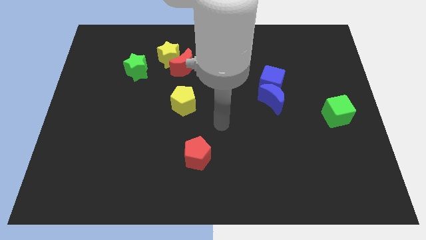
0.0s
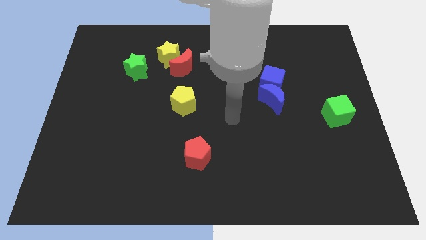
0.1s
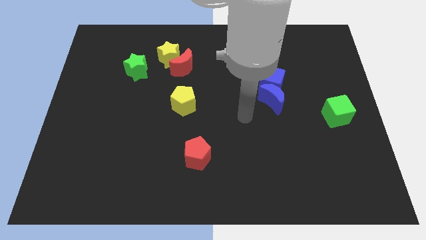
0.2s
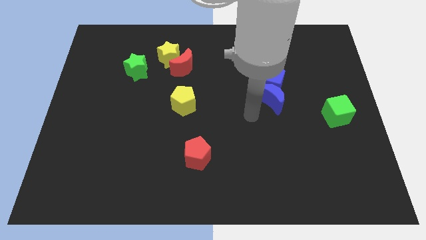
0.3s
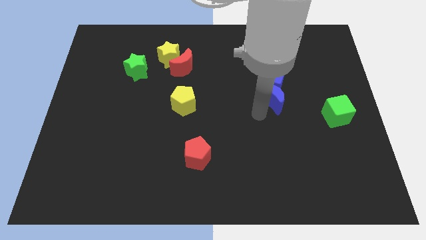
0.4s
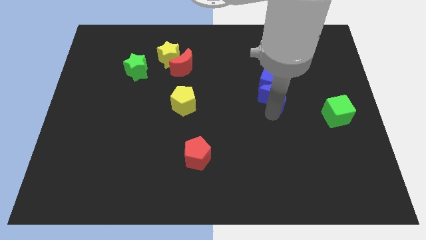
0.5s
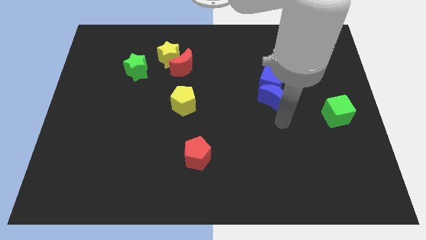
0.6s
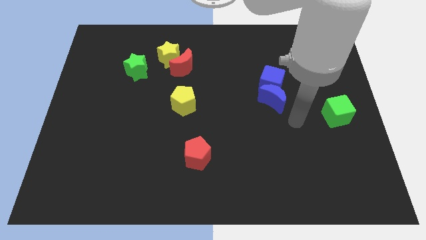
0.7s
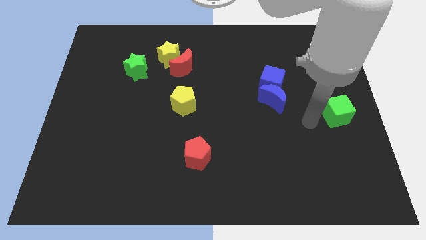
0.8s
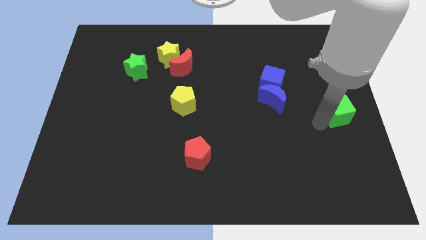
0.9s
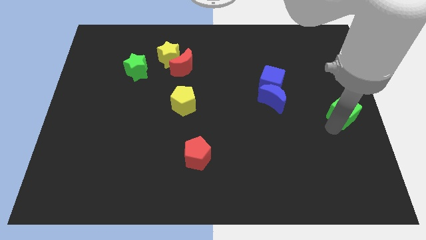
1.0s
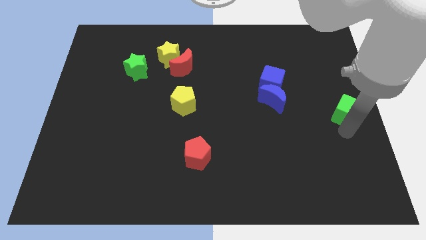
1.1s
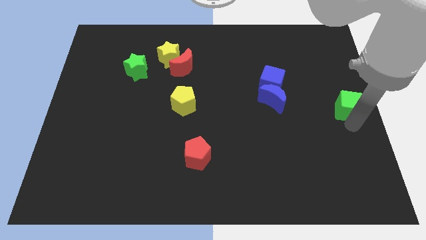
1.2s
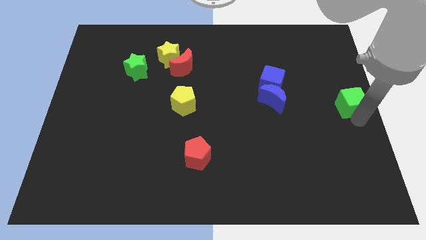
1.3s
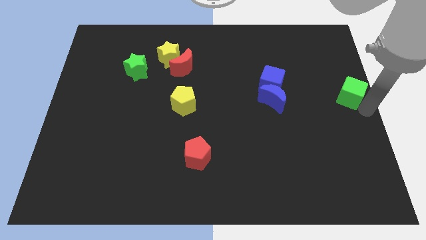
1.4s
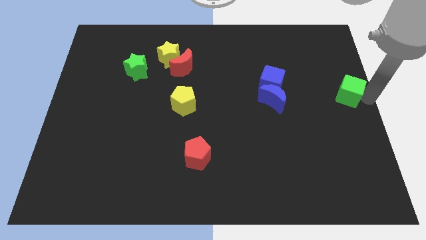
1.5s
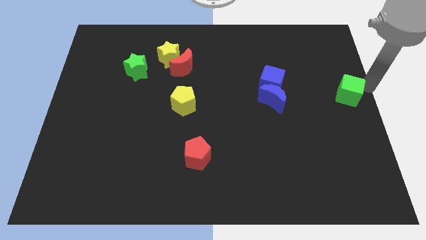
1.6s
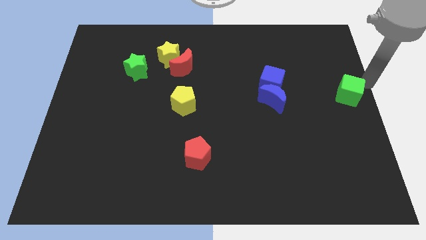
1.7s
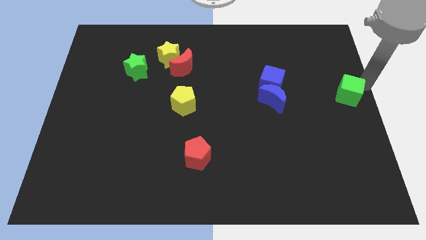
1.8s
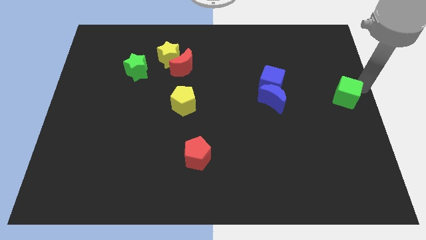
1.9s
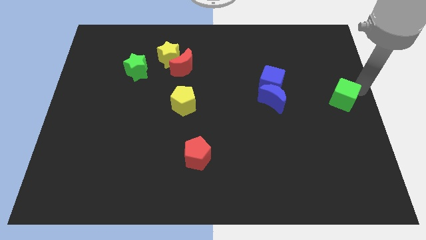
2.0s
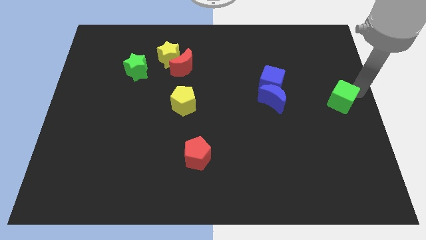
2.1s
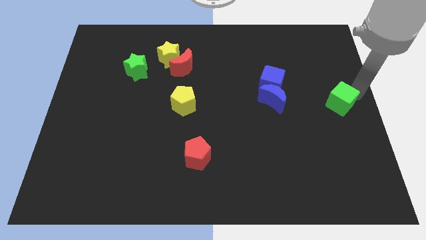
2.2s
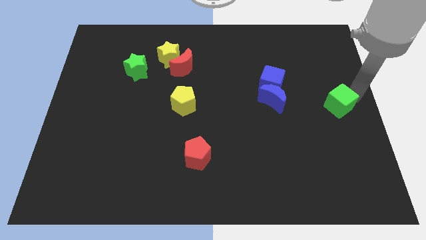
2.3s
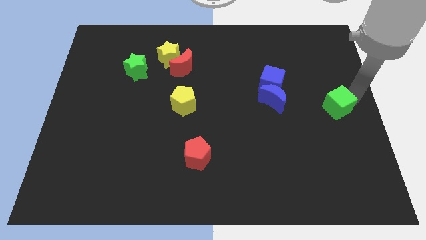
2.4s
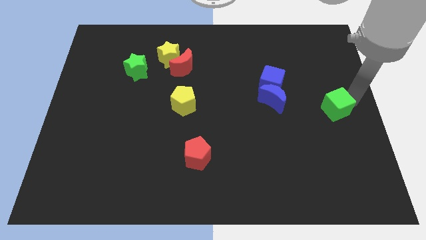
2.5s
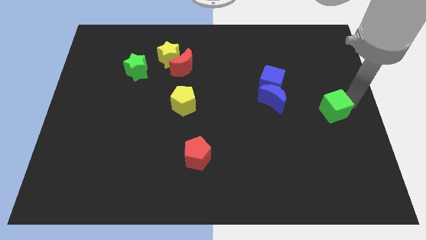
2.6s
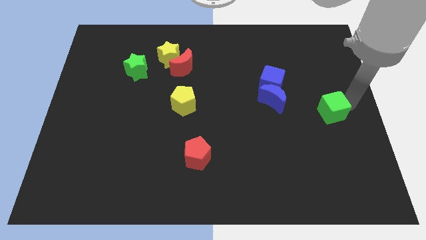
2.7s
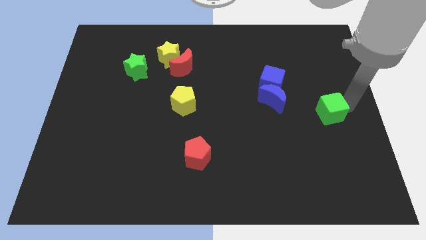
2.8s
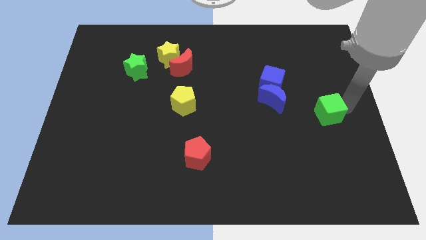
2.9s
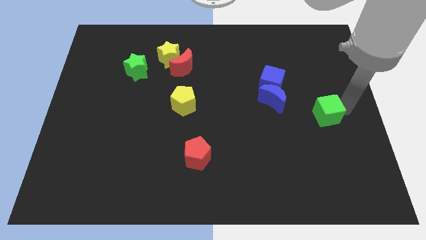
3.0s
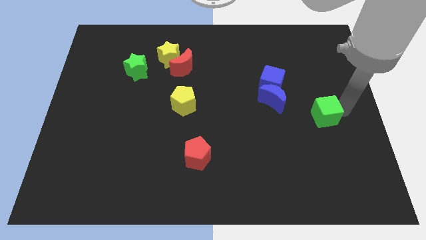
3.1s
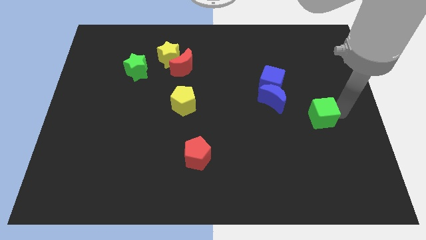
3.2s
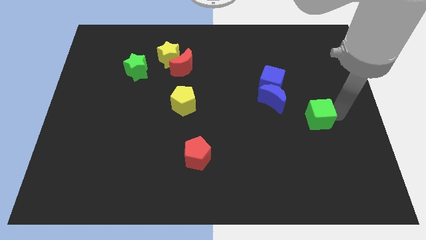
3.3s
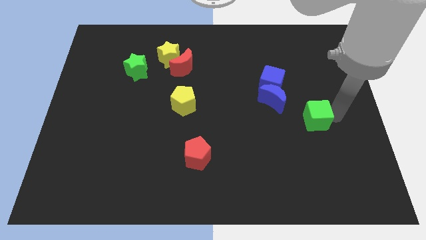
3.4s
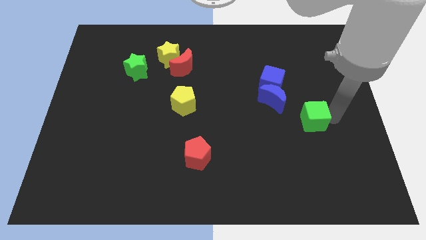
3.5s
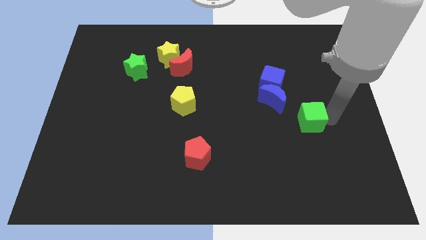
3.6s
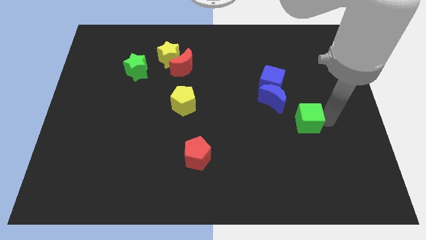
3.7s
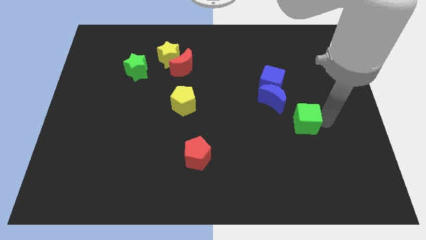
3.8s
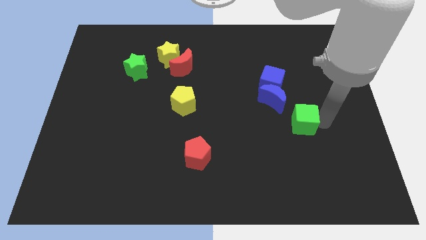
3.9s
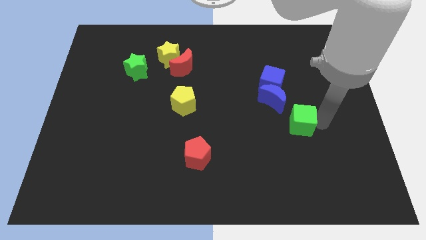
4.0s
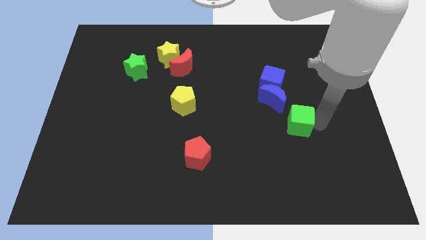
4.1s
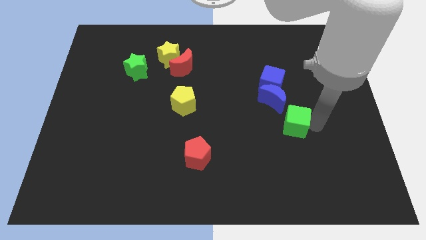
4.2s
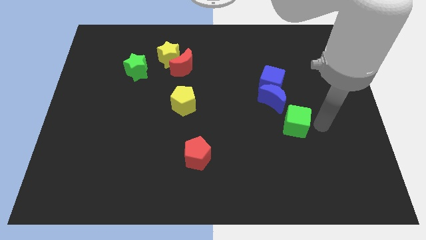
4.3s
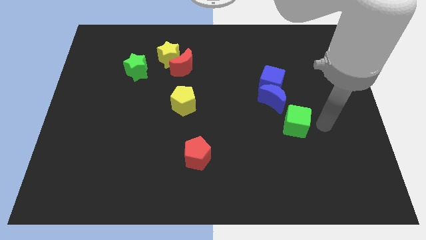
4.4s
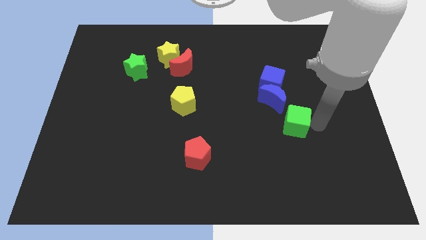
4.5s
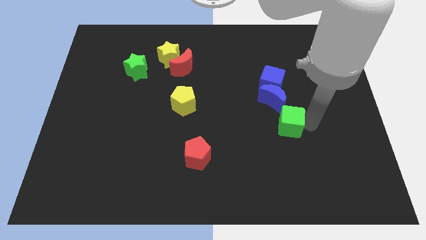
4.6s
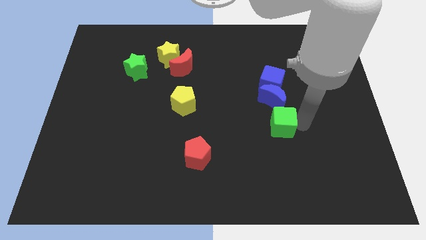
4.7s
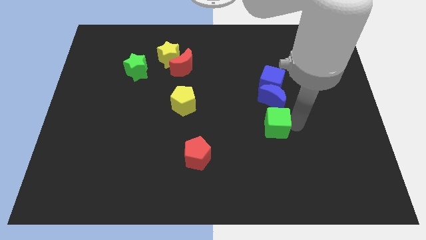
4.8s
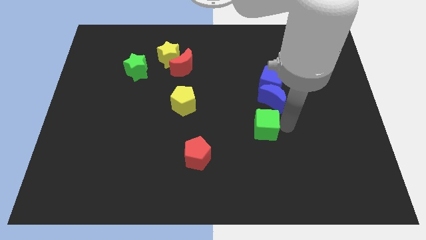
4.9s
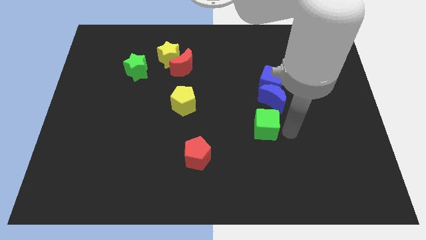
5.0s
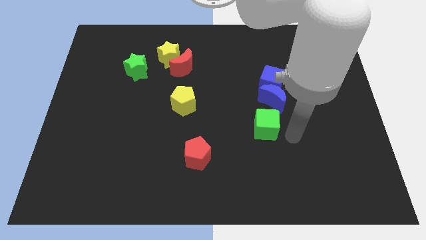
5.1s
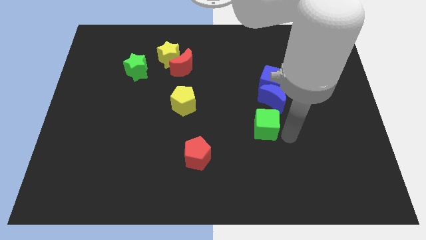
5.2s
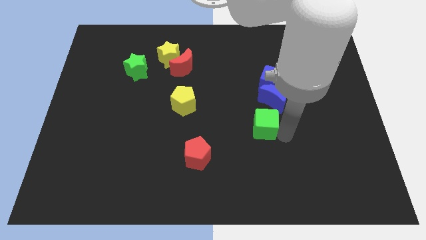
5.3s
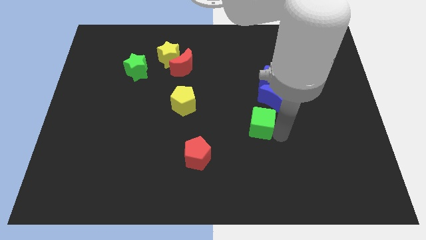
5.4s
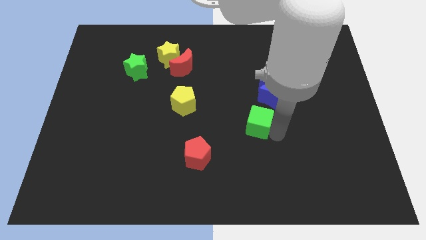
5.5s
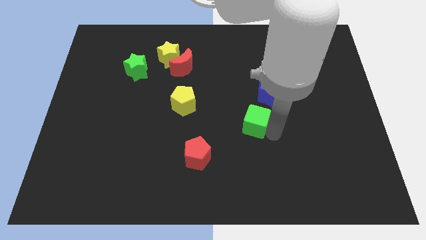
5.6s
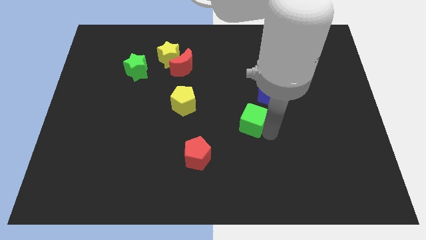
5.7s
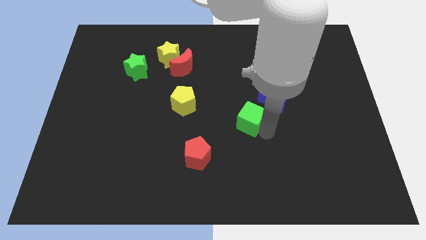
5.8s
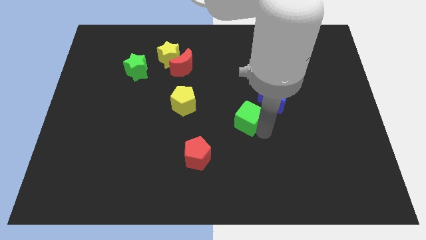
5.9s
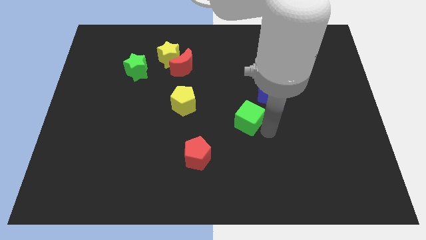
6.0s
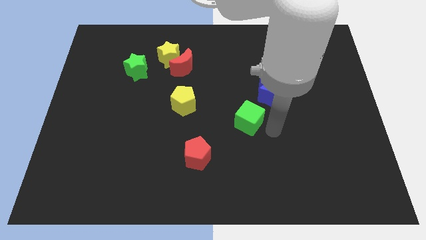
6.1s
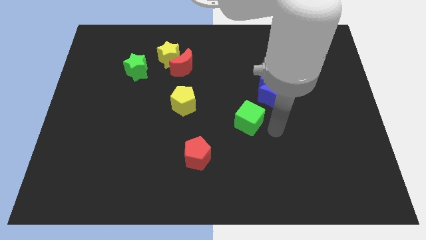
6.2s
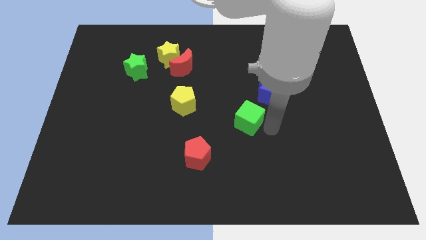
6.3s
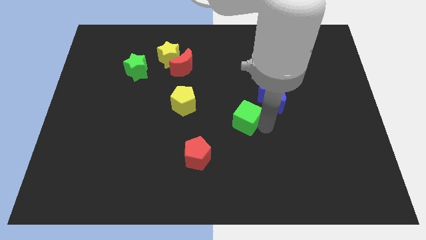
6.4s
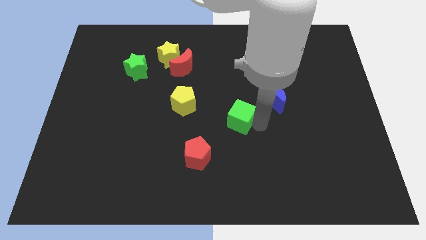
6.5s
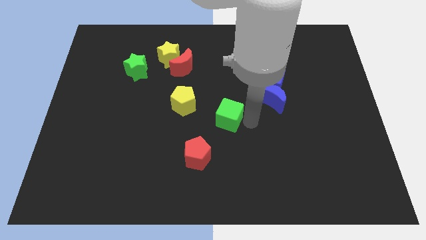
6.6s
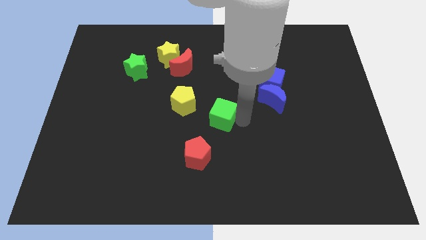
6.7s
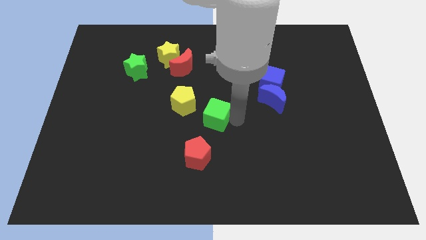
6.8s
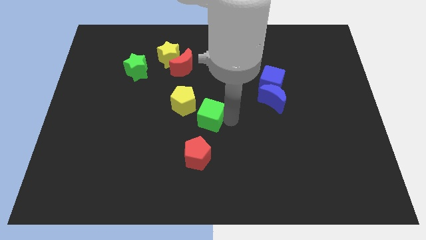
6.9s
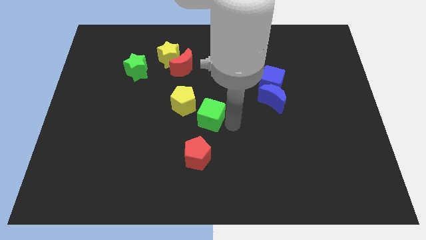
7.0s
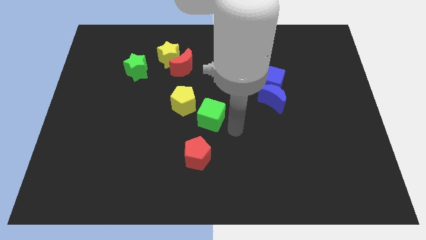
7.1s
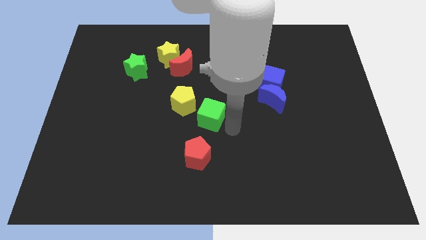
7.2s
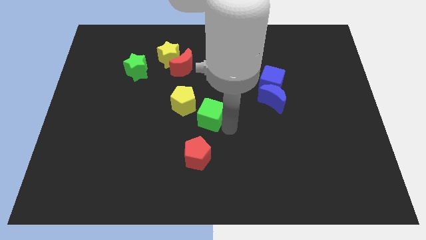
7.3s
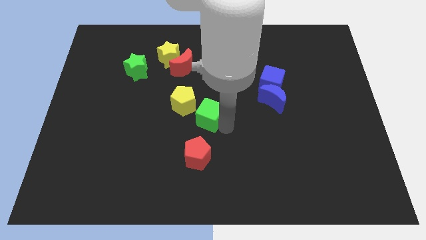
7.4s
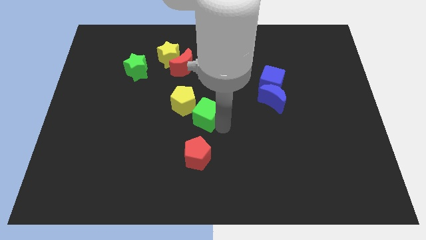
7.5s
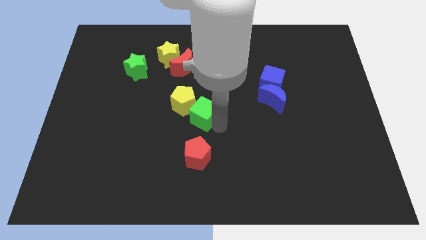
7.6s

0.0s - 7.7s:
slide the green cube next to the yellow pentagon
